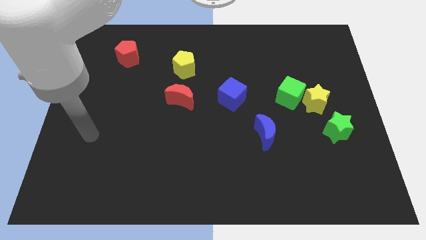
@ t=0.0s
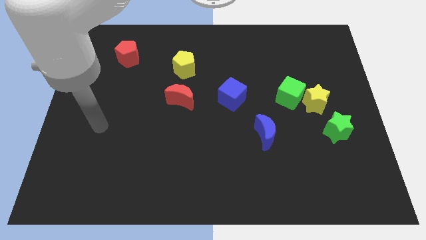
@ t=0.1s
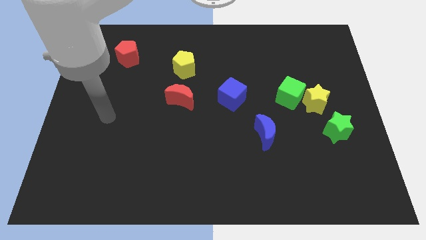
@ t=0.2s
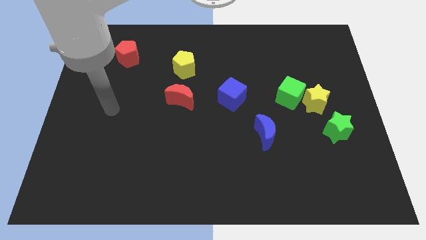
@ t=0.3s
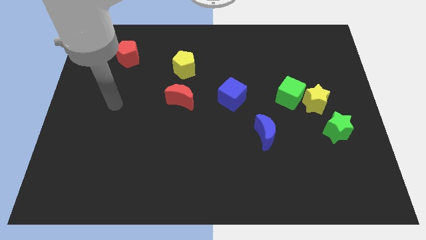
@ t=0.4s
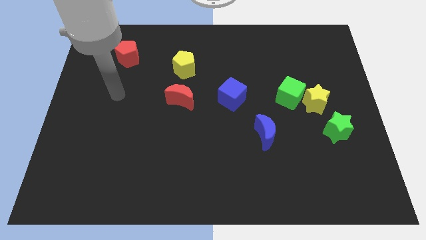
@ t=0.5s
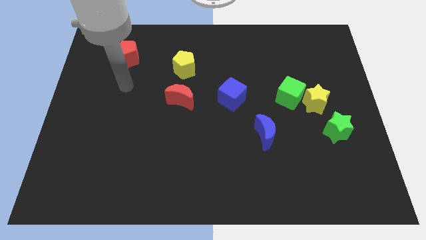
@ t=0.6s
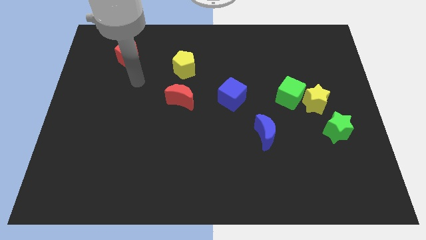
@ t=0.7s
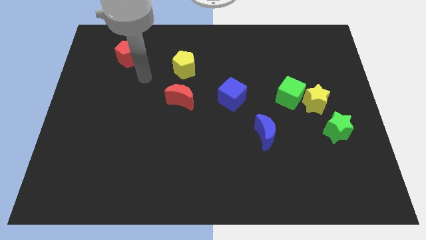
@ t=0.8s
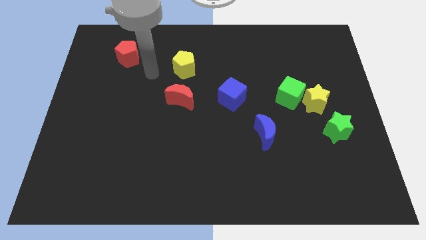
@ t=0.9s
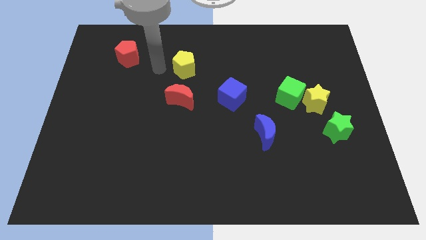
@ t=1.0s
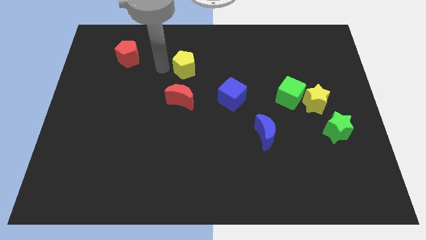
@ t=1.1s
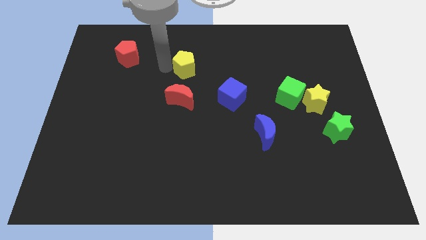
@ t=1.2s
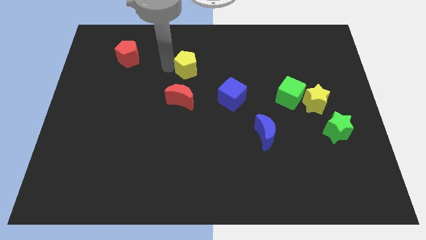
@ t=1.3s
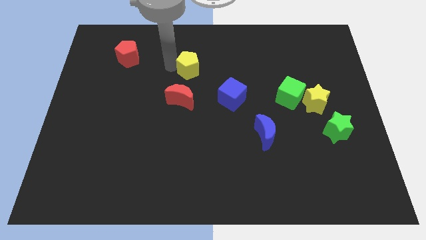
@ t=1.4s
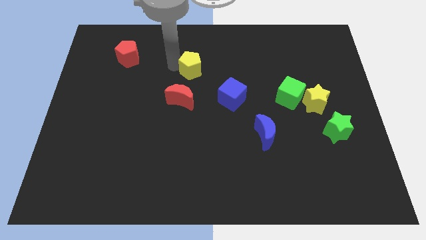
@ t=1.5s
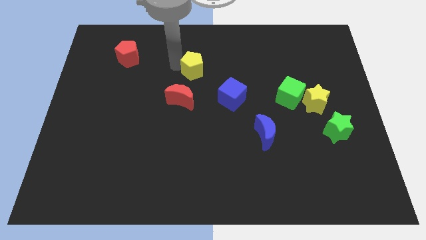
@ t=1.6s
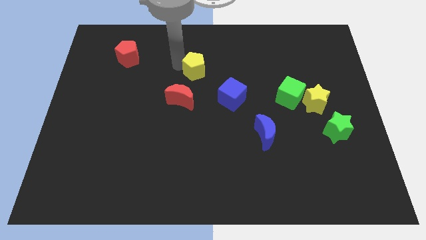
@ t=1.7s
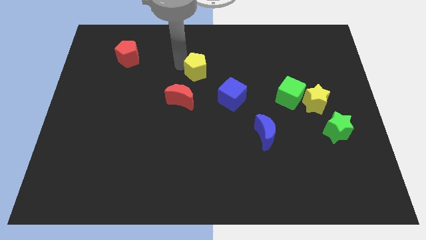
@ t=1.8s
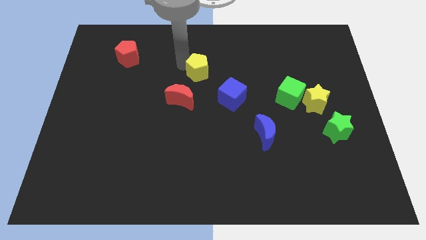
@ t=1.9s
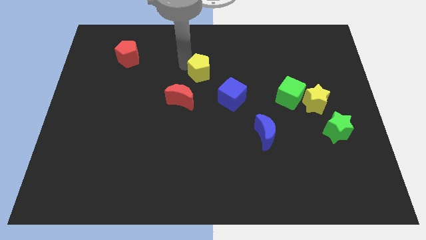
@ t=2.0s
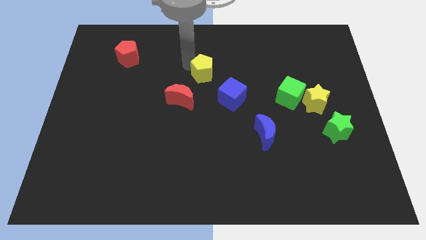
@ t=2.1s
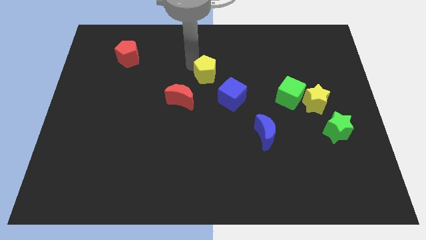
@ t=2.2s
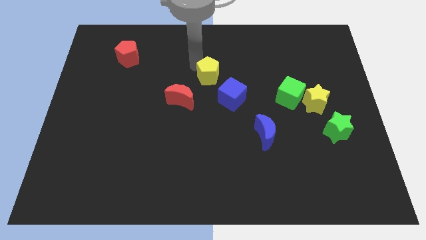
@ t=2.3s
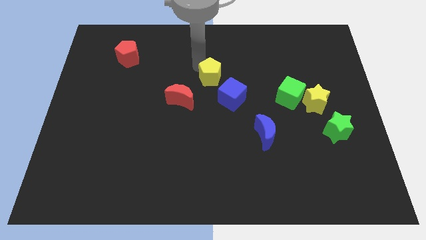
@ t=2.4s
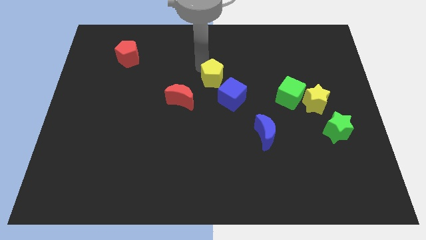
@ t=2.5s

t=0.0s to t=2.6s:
move the yellow pentagon to the right a little

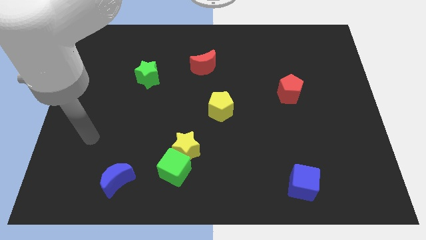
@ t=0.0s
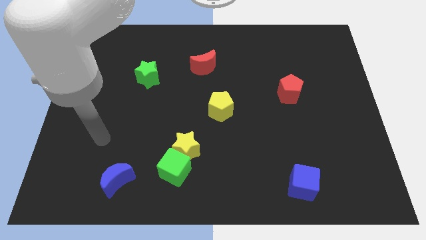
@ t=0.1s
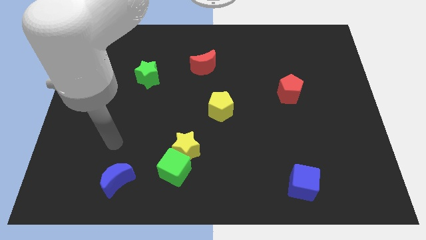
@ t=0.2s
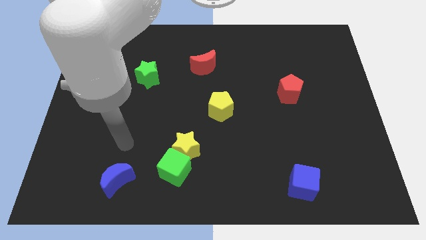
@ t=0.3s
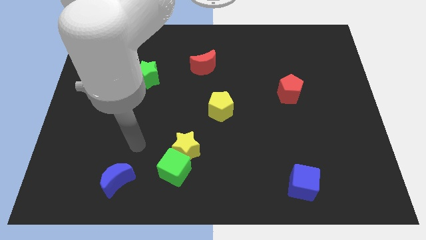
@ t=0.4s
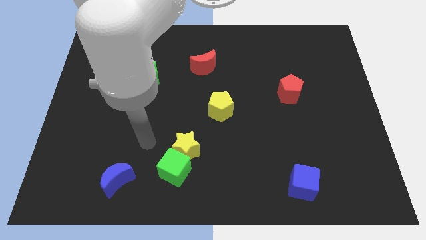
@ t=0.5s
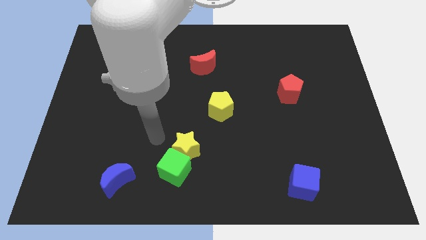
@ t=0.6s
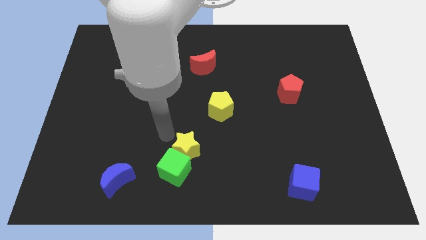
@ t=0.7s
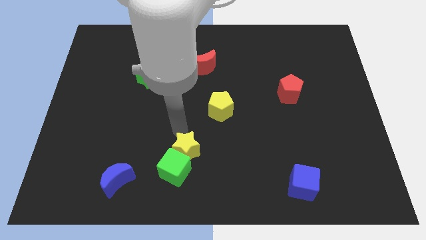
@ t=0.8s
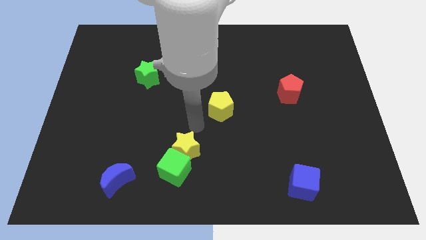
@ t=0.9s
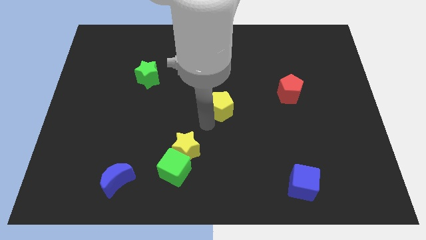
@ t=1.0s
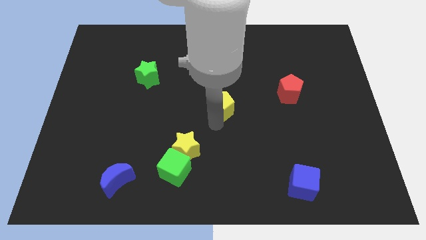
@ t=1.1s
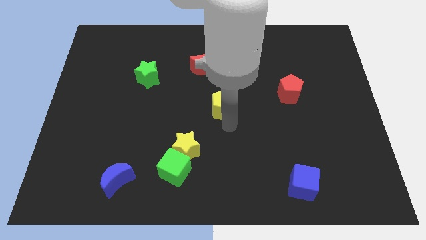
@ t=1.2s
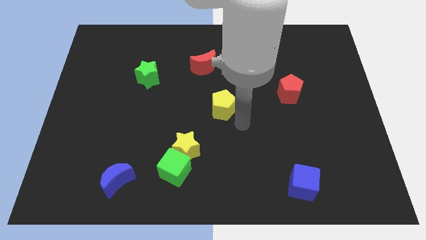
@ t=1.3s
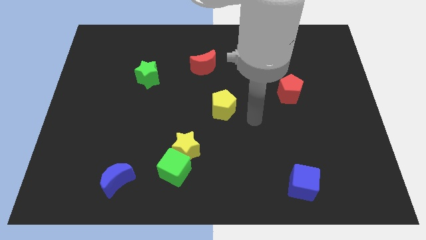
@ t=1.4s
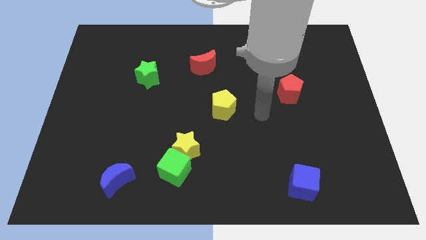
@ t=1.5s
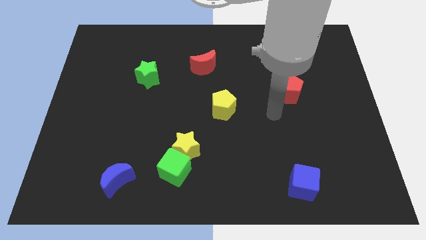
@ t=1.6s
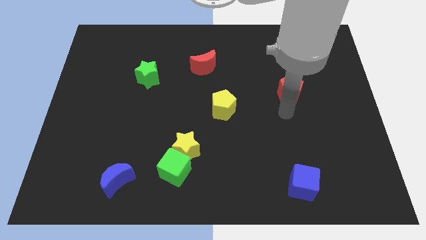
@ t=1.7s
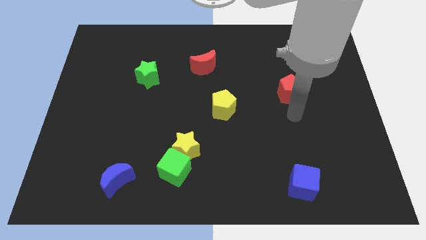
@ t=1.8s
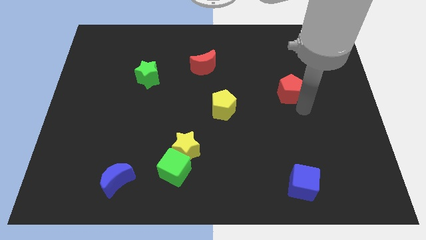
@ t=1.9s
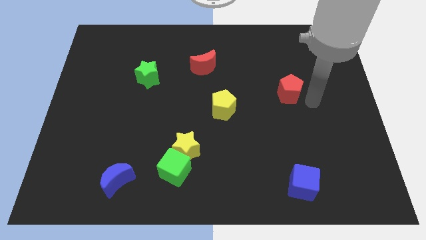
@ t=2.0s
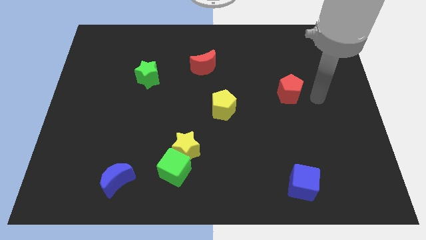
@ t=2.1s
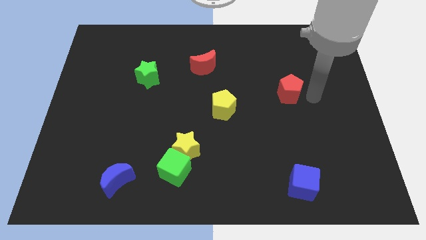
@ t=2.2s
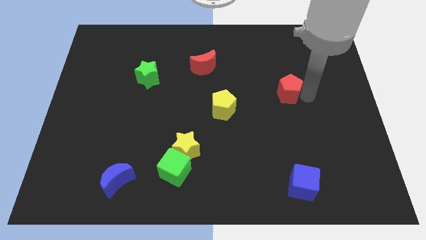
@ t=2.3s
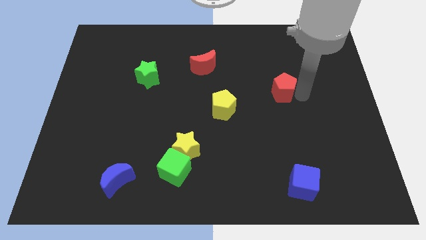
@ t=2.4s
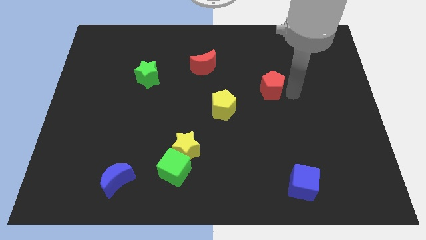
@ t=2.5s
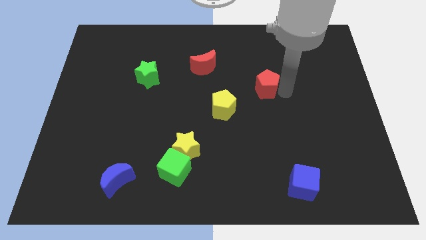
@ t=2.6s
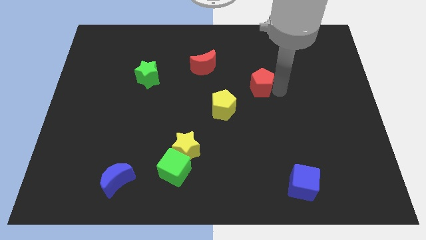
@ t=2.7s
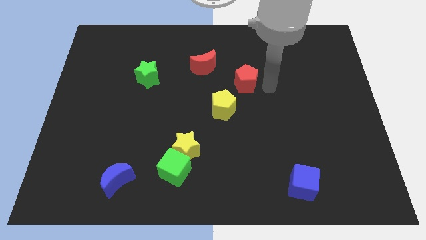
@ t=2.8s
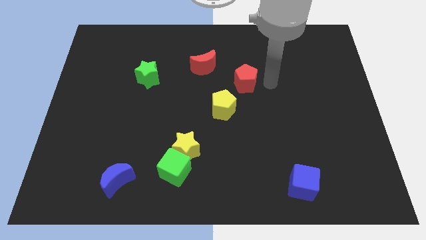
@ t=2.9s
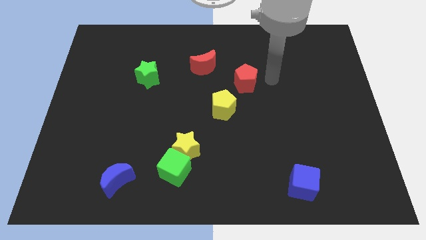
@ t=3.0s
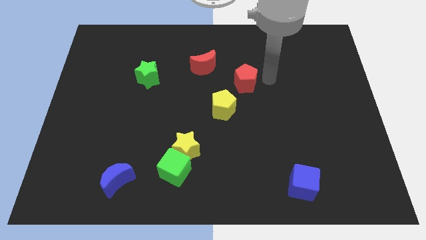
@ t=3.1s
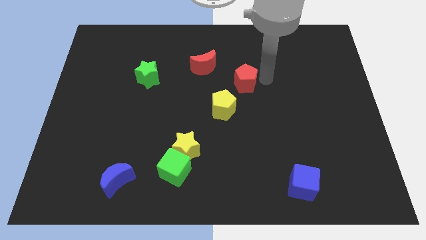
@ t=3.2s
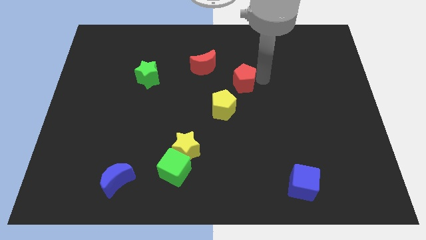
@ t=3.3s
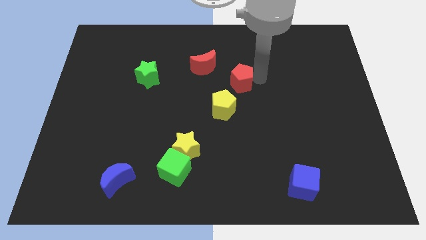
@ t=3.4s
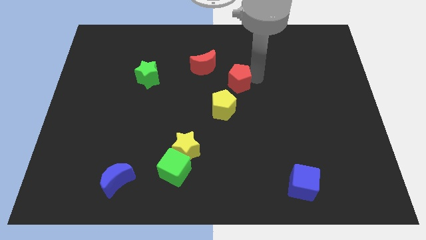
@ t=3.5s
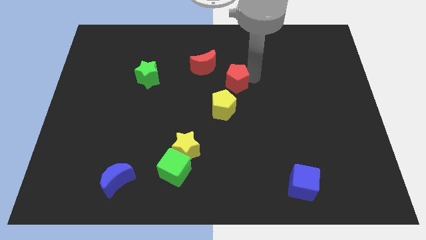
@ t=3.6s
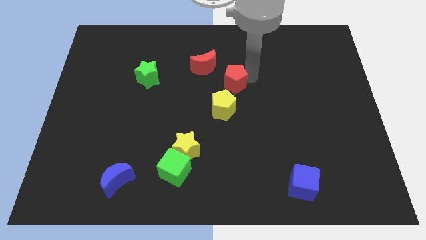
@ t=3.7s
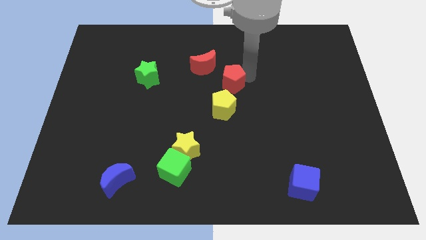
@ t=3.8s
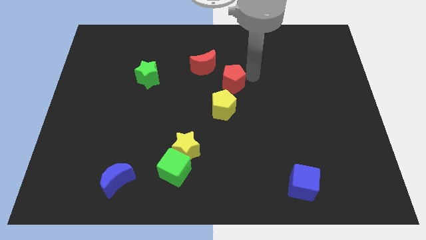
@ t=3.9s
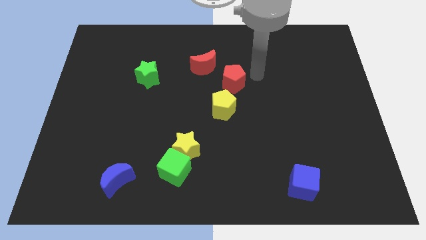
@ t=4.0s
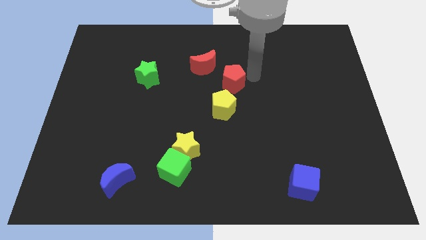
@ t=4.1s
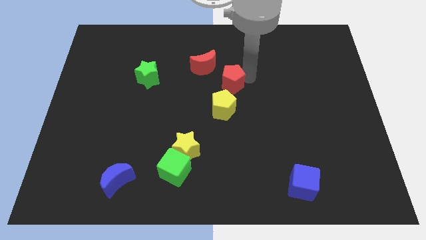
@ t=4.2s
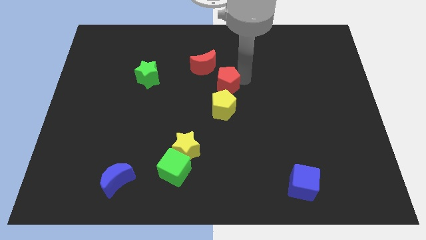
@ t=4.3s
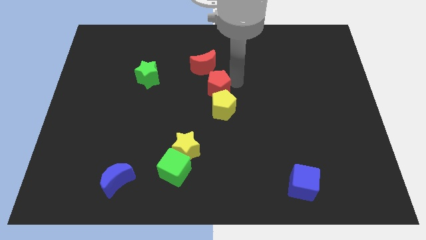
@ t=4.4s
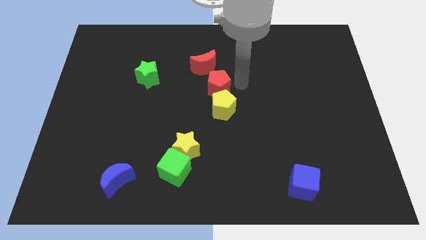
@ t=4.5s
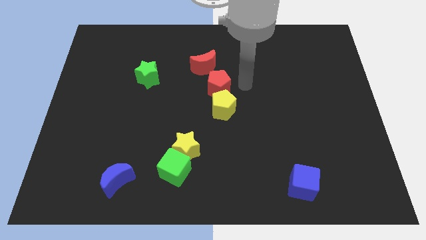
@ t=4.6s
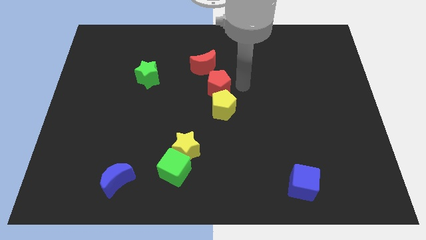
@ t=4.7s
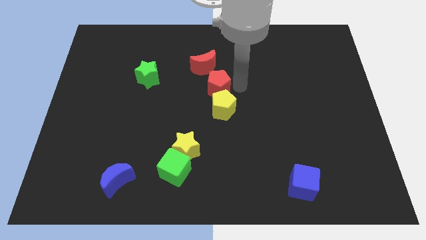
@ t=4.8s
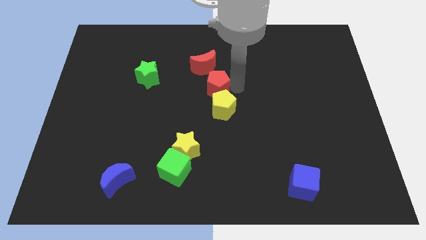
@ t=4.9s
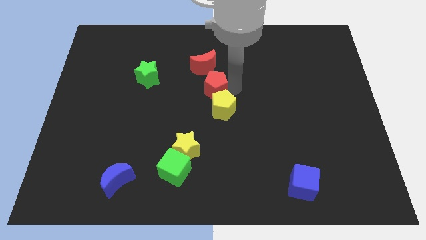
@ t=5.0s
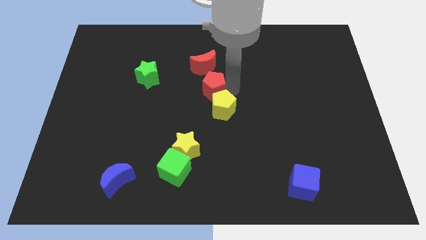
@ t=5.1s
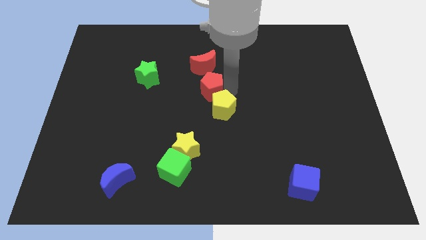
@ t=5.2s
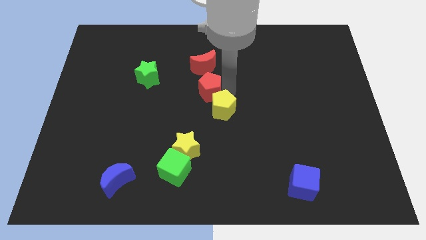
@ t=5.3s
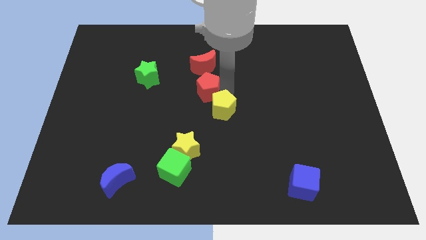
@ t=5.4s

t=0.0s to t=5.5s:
slide the red pentagon to the left
